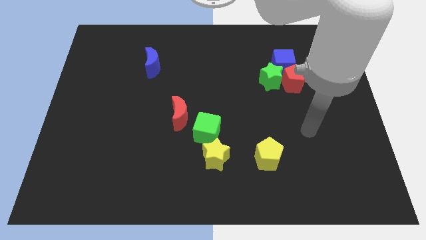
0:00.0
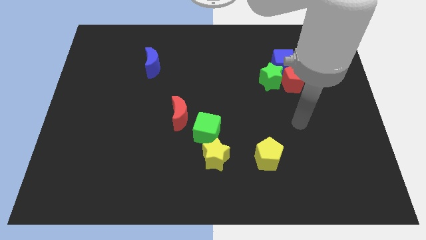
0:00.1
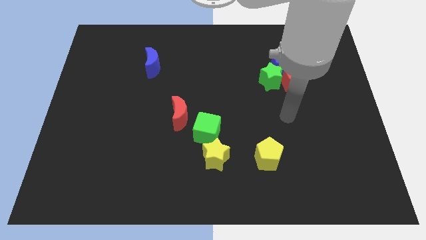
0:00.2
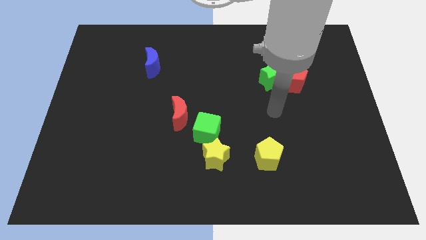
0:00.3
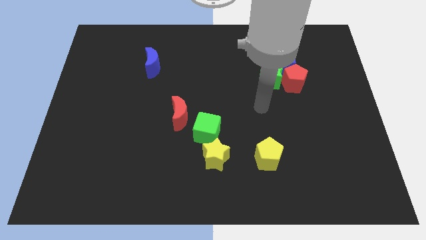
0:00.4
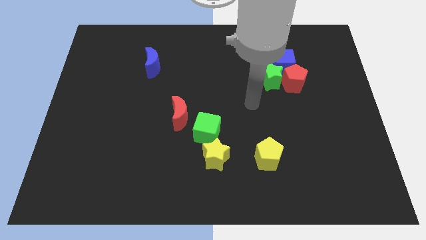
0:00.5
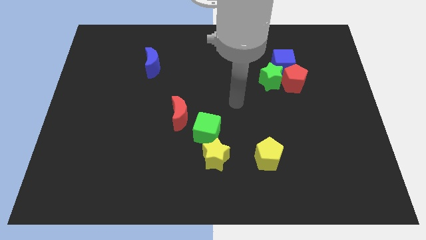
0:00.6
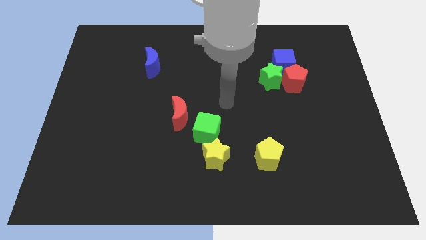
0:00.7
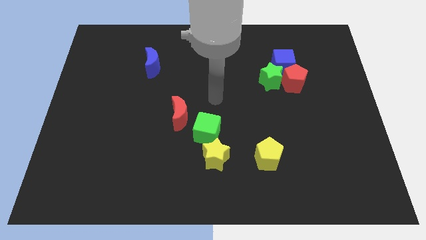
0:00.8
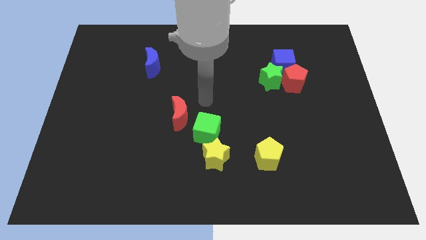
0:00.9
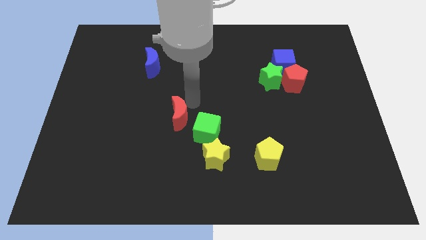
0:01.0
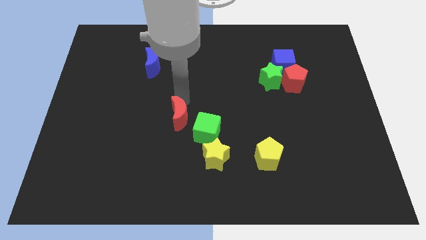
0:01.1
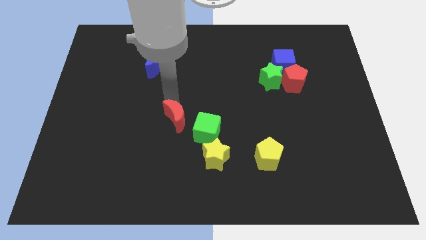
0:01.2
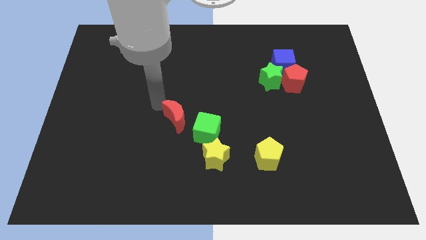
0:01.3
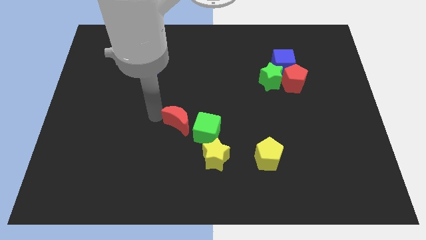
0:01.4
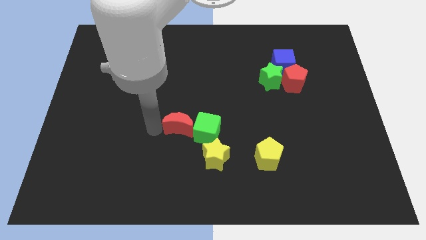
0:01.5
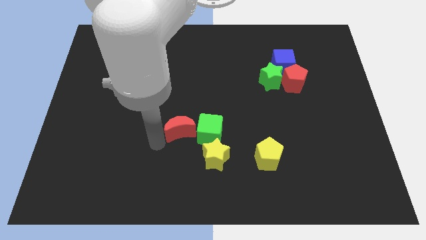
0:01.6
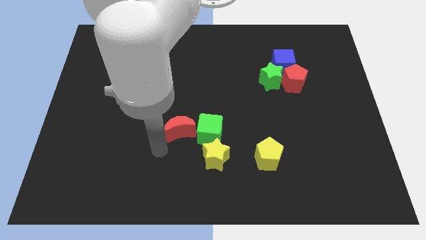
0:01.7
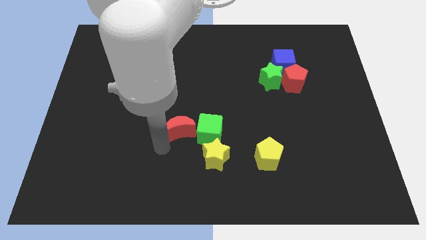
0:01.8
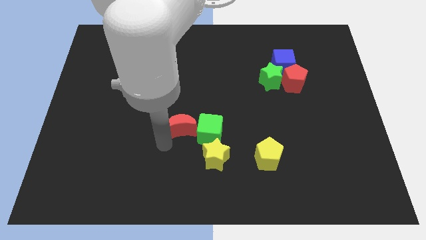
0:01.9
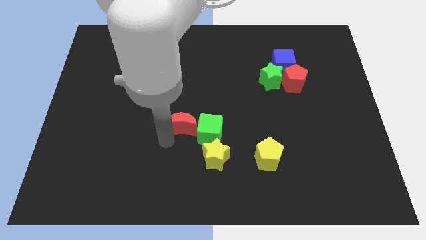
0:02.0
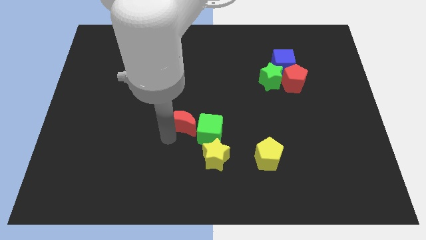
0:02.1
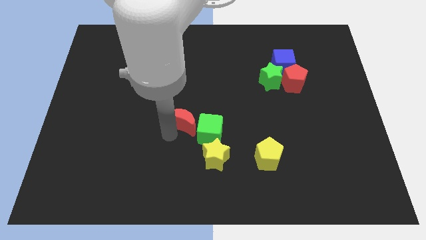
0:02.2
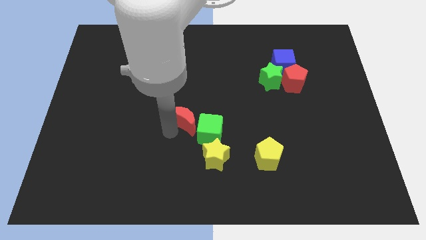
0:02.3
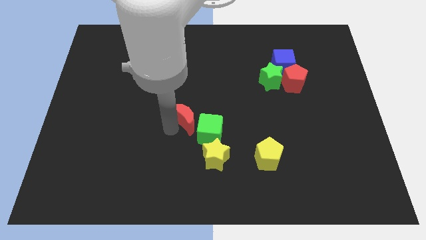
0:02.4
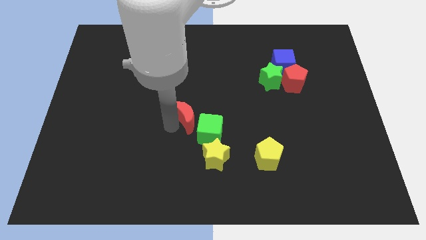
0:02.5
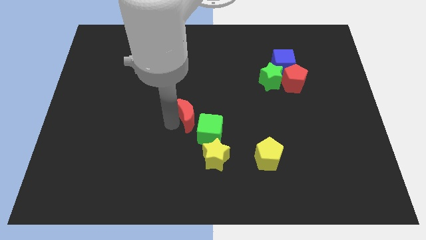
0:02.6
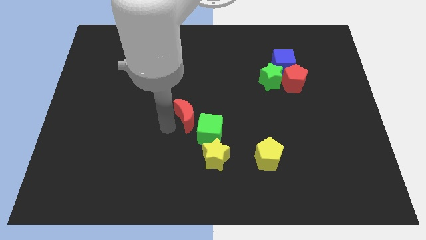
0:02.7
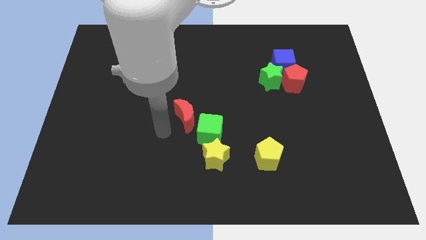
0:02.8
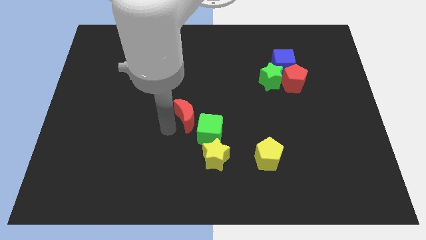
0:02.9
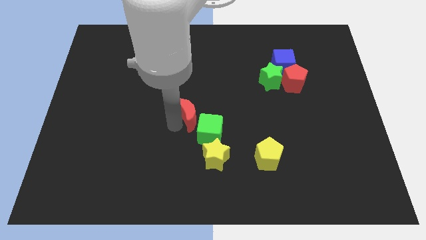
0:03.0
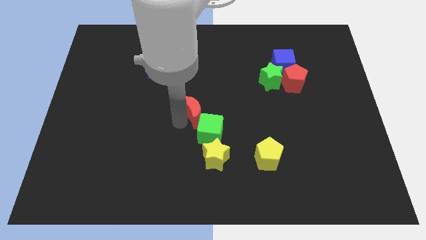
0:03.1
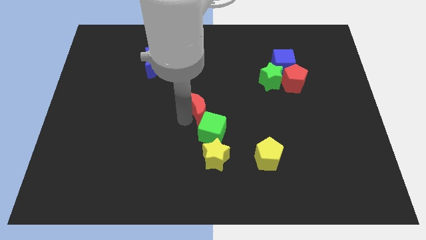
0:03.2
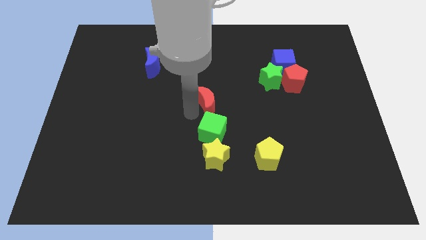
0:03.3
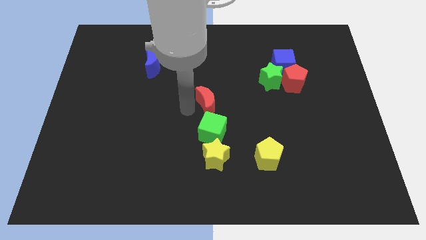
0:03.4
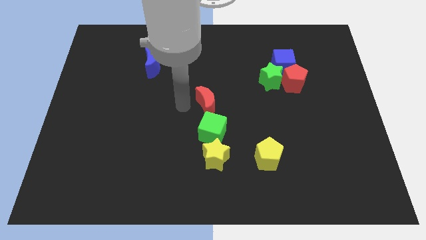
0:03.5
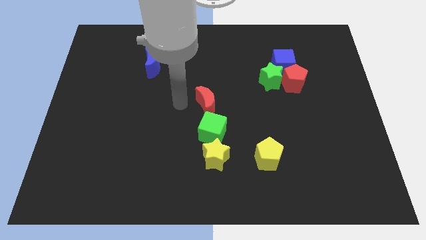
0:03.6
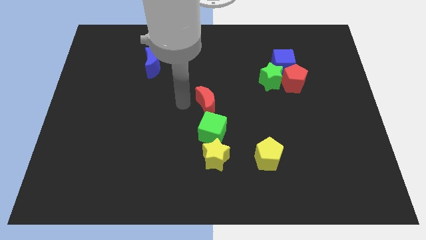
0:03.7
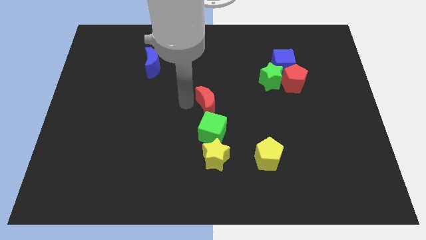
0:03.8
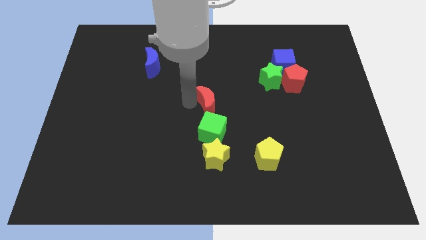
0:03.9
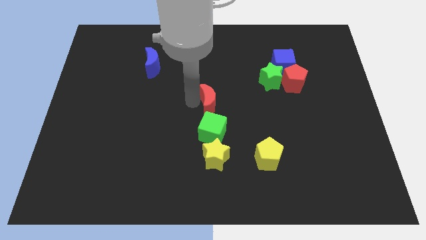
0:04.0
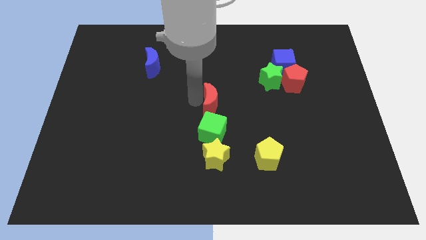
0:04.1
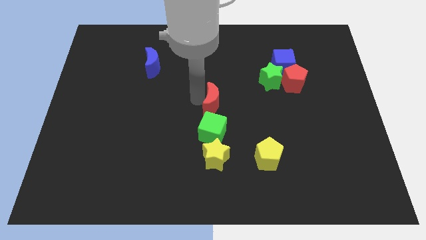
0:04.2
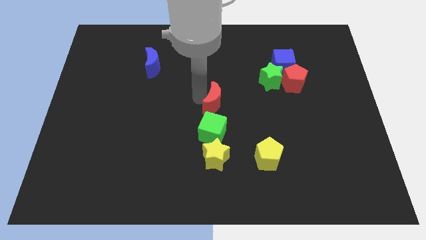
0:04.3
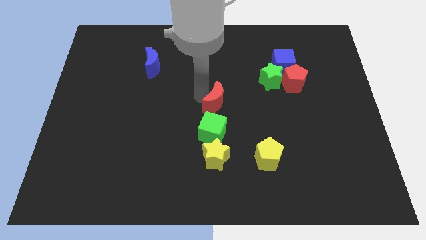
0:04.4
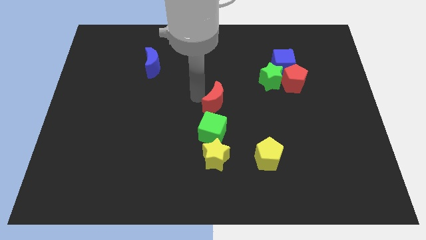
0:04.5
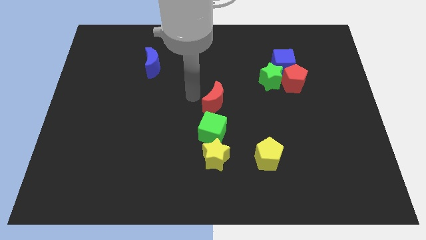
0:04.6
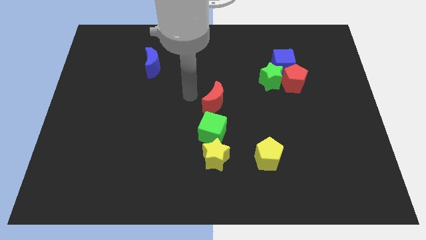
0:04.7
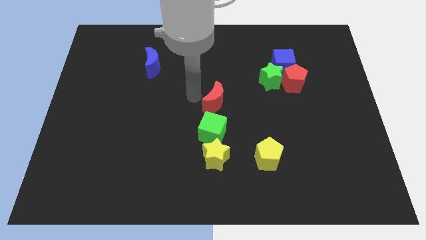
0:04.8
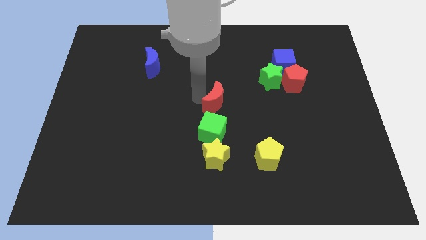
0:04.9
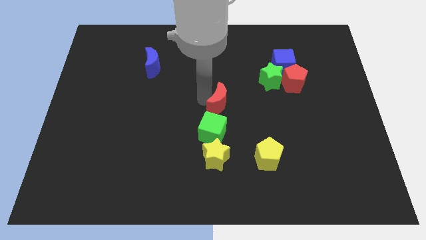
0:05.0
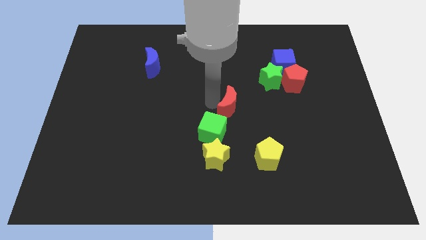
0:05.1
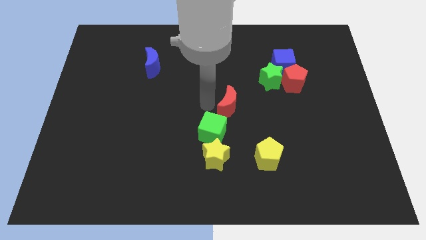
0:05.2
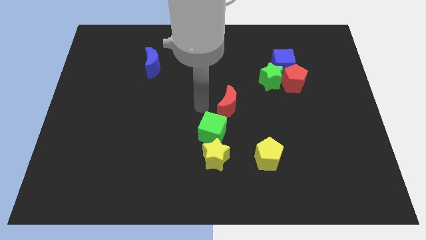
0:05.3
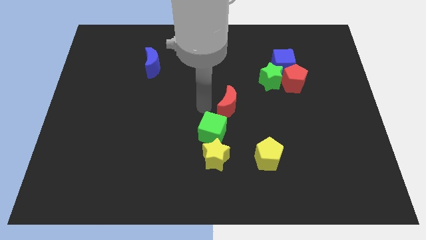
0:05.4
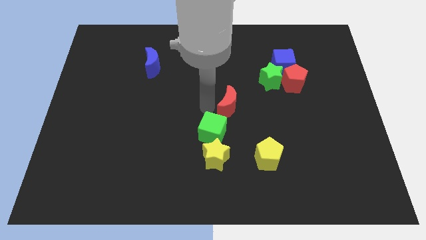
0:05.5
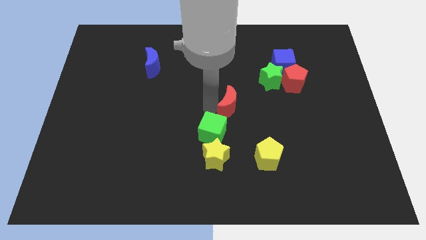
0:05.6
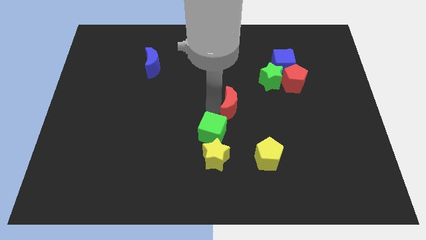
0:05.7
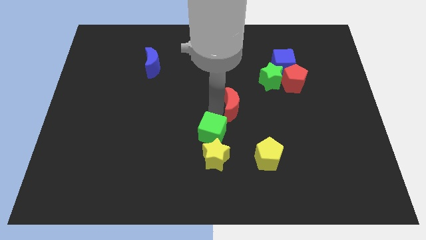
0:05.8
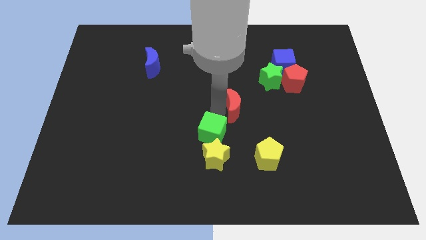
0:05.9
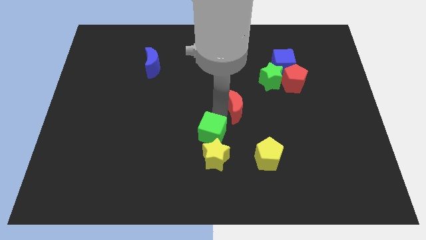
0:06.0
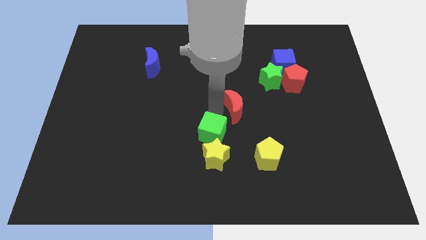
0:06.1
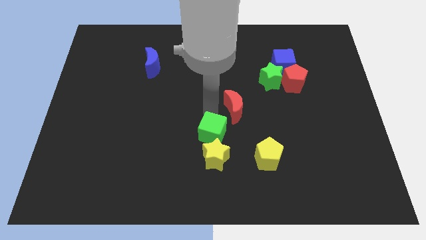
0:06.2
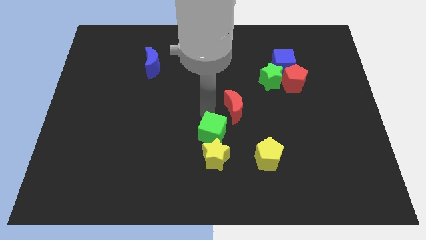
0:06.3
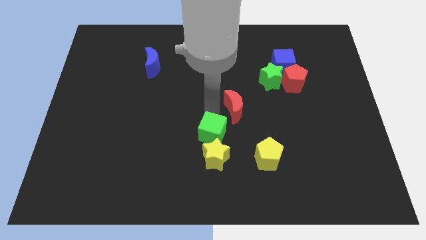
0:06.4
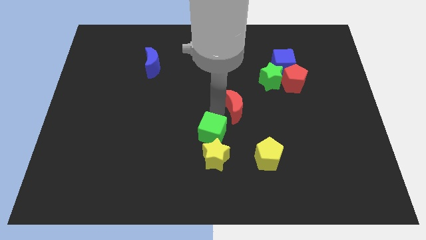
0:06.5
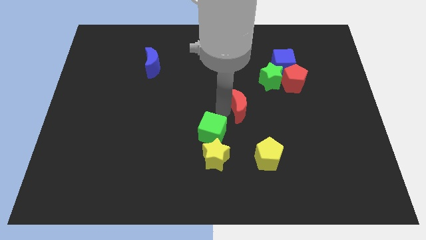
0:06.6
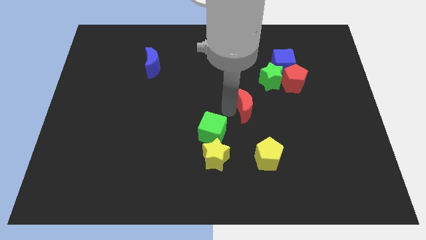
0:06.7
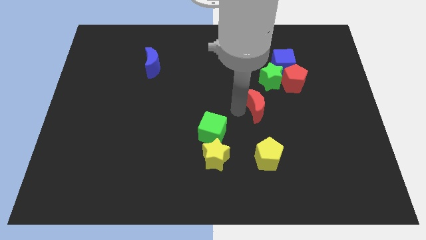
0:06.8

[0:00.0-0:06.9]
slide the red moon diagonally down and to the left of the red pentagon
